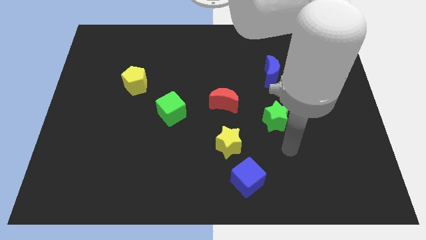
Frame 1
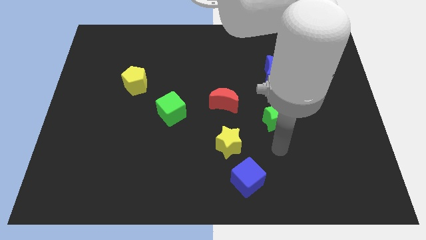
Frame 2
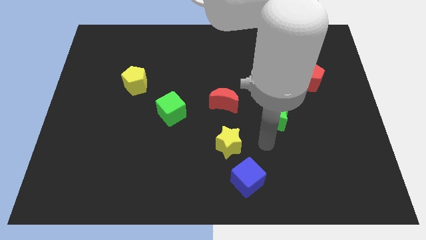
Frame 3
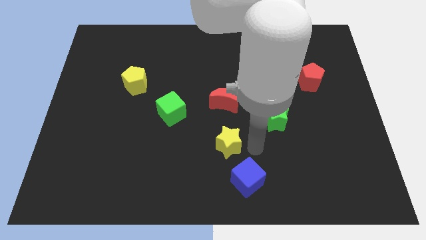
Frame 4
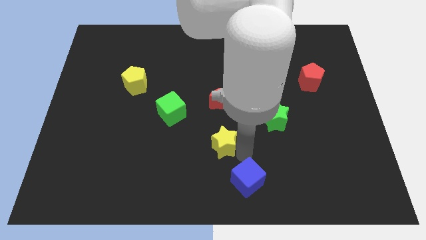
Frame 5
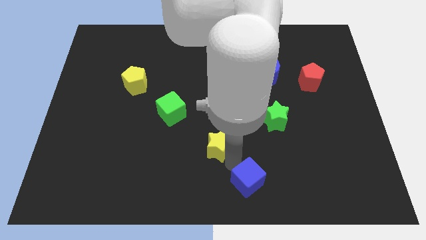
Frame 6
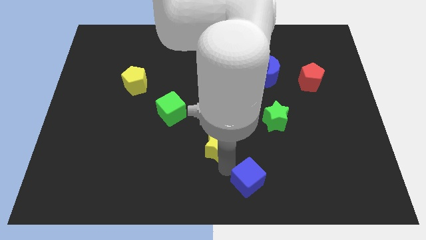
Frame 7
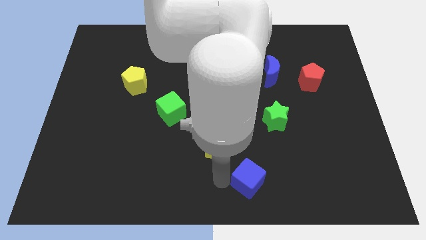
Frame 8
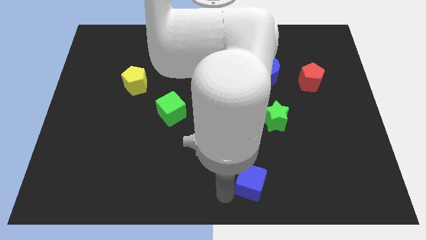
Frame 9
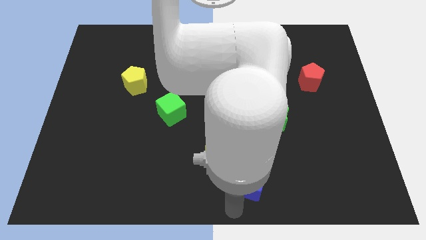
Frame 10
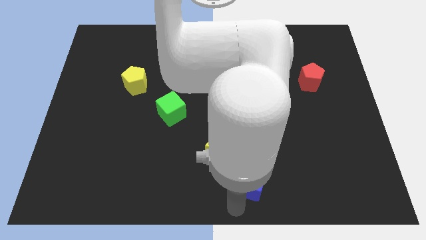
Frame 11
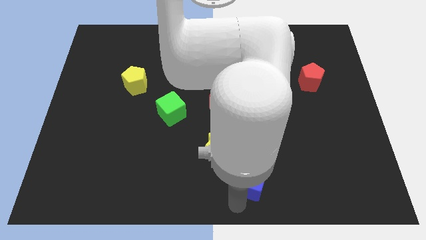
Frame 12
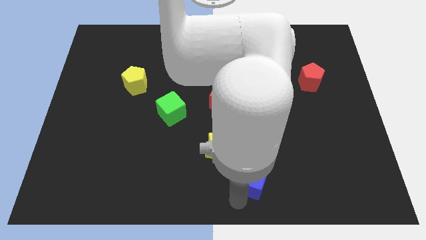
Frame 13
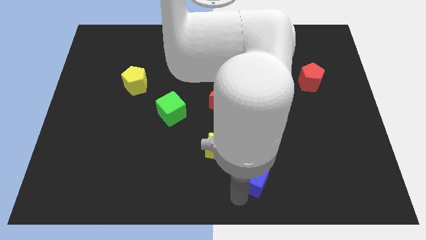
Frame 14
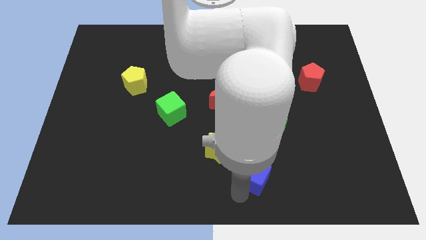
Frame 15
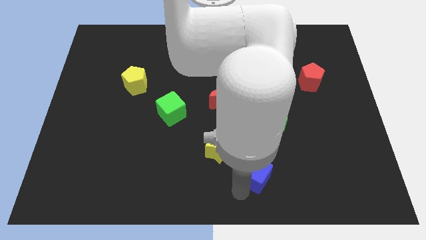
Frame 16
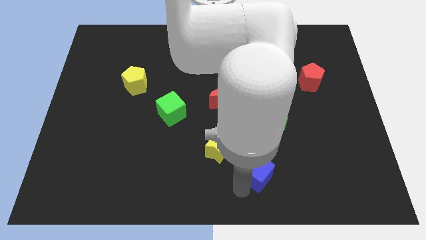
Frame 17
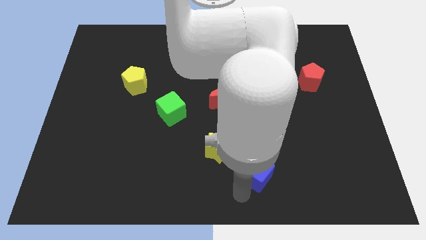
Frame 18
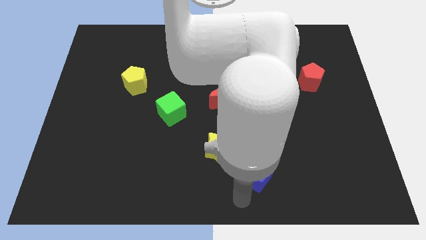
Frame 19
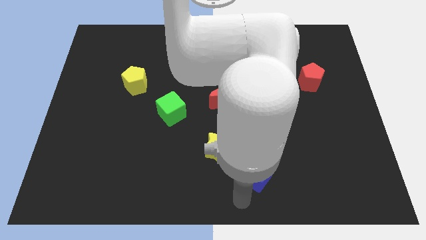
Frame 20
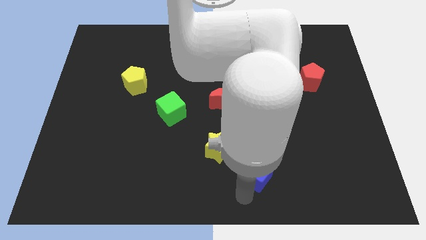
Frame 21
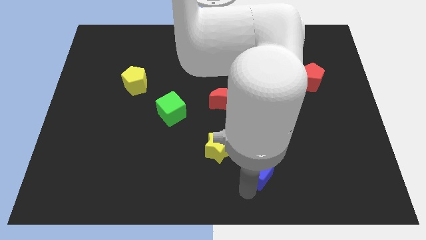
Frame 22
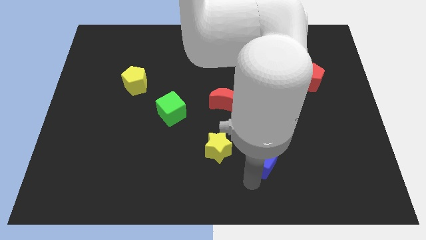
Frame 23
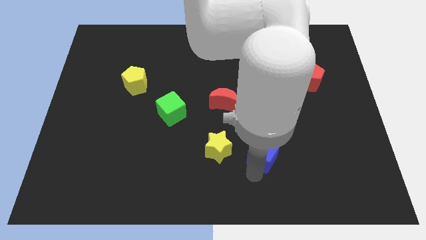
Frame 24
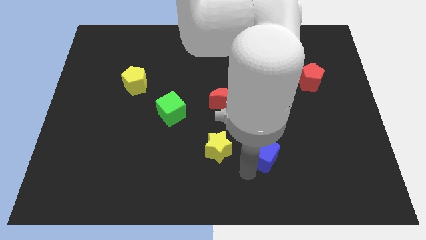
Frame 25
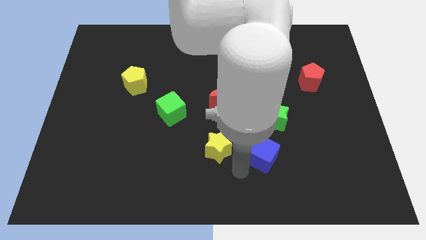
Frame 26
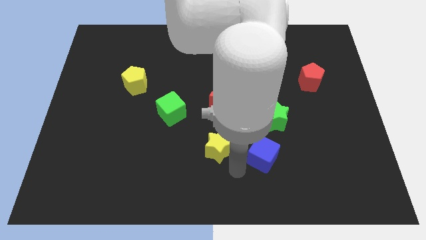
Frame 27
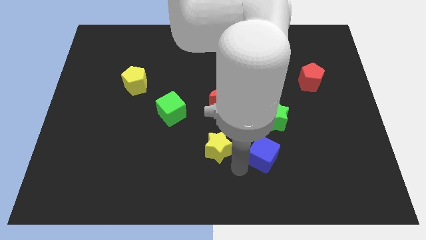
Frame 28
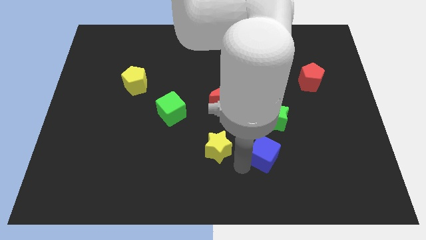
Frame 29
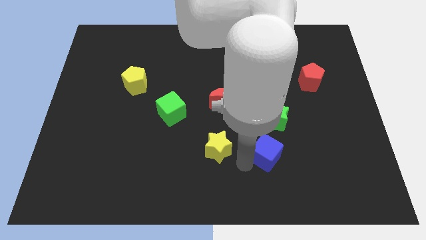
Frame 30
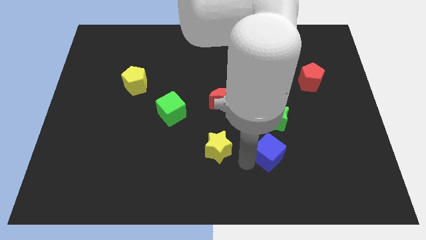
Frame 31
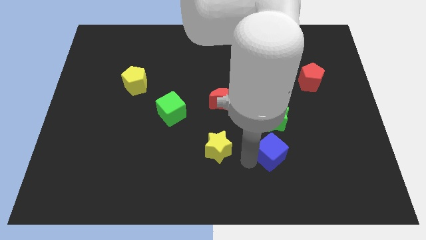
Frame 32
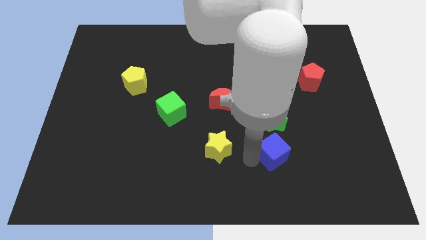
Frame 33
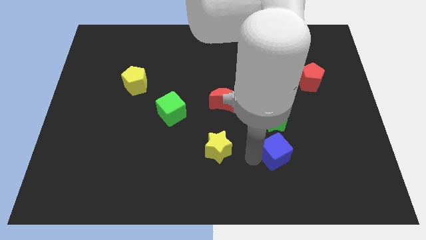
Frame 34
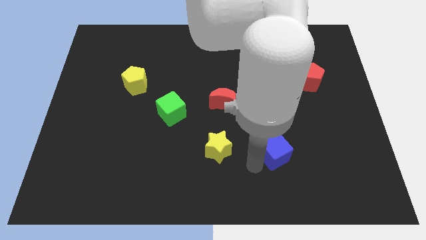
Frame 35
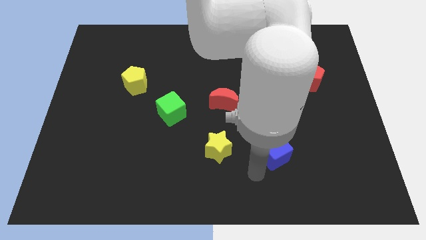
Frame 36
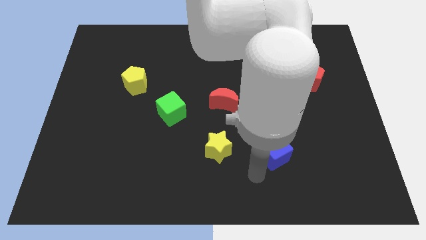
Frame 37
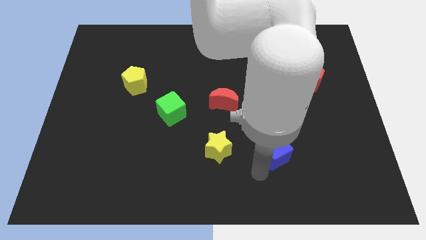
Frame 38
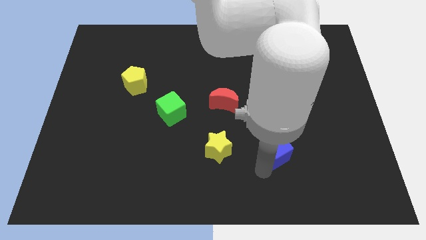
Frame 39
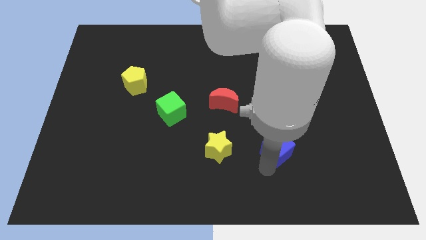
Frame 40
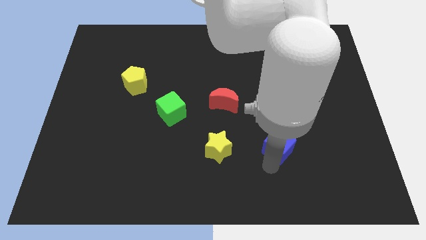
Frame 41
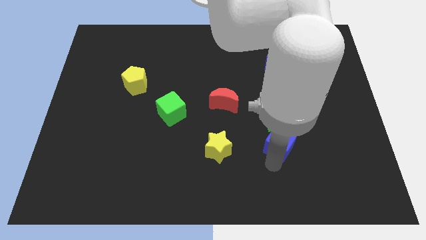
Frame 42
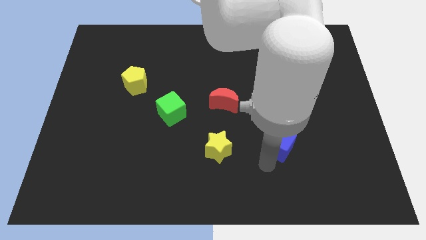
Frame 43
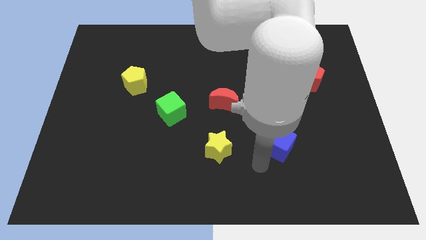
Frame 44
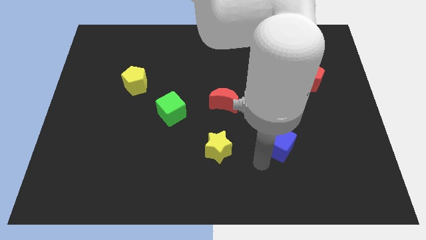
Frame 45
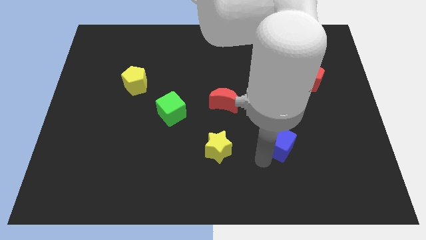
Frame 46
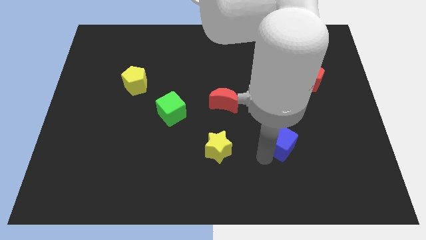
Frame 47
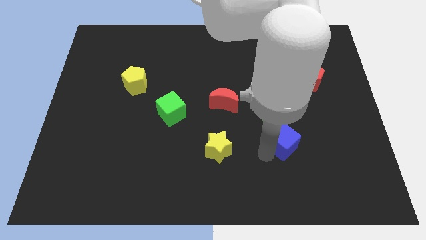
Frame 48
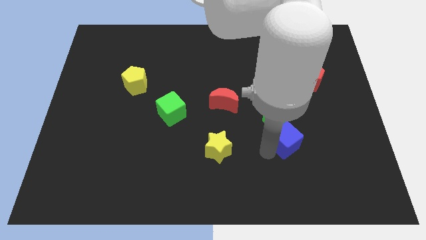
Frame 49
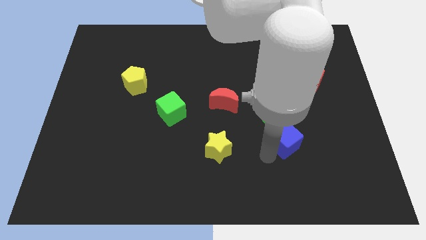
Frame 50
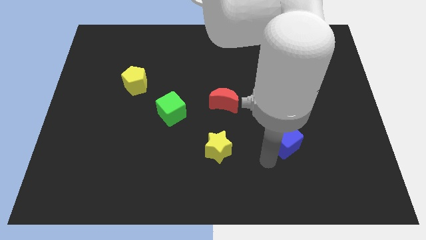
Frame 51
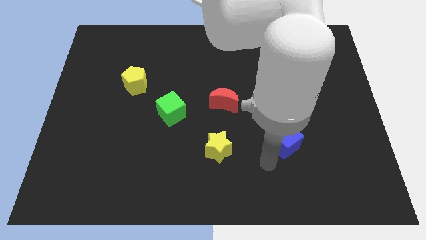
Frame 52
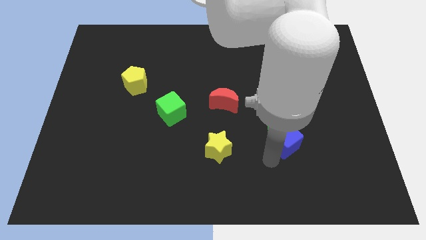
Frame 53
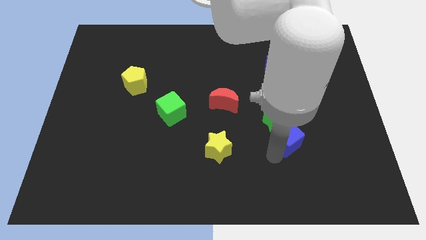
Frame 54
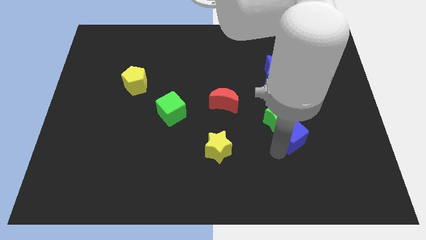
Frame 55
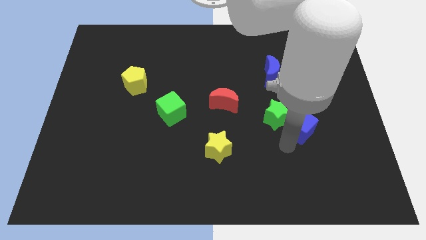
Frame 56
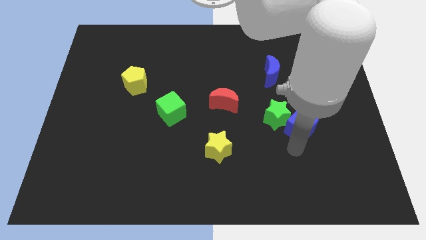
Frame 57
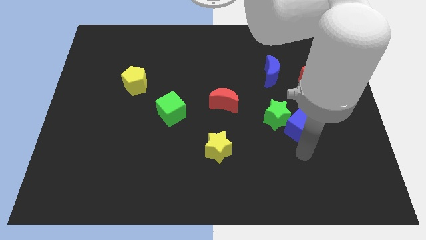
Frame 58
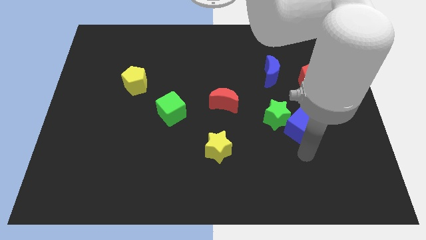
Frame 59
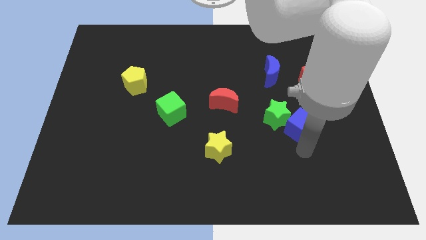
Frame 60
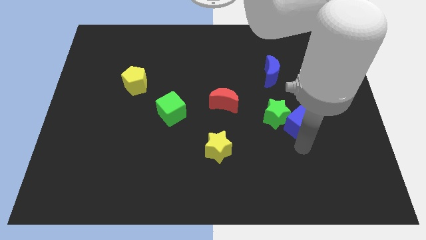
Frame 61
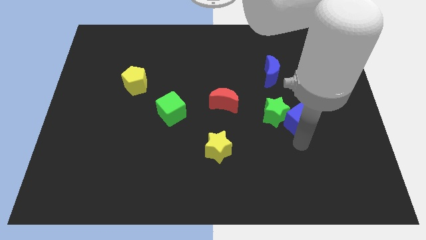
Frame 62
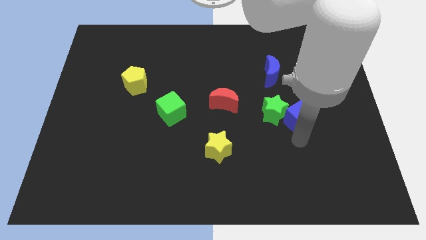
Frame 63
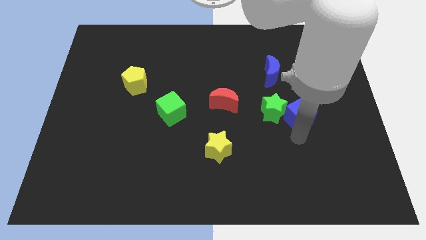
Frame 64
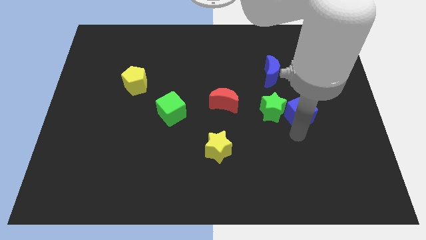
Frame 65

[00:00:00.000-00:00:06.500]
move the blue cube diagonally down and to the left of the red pentagon

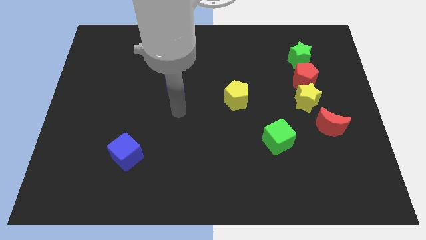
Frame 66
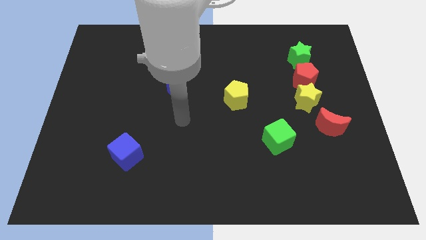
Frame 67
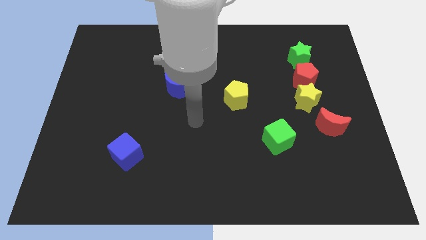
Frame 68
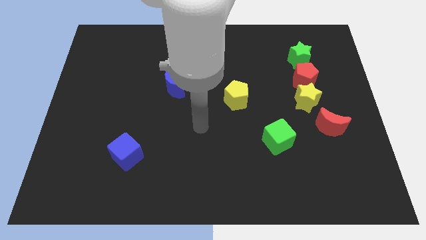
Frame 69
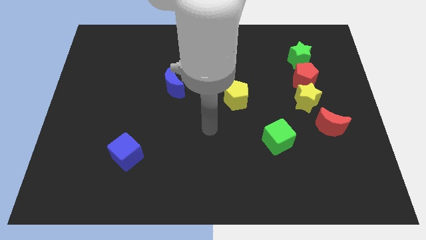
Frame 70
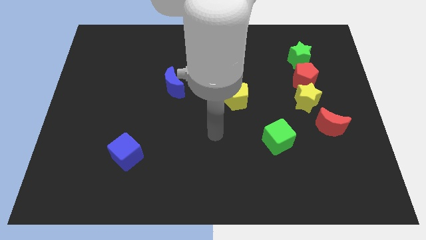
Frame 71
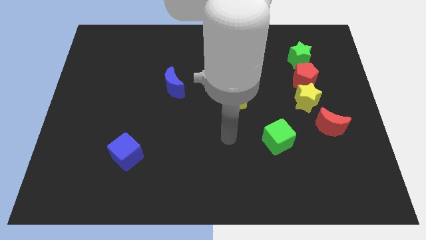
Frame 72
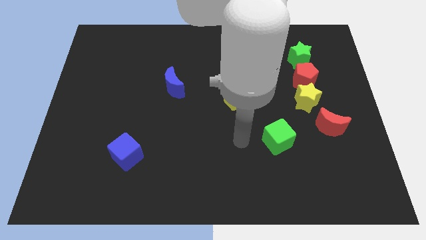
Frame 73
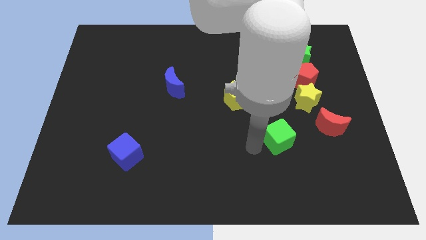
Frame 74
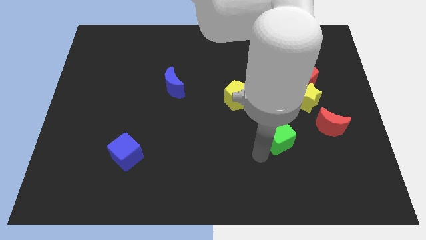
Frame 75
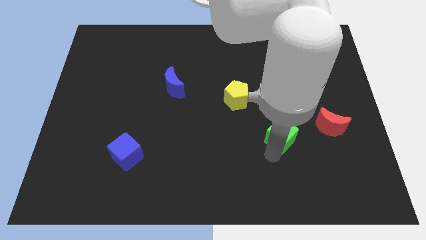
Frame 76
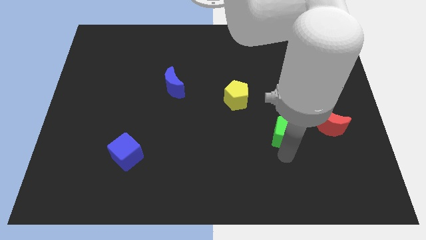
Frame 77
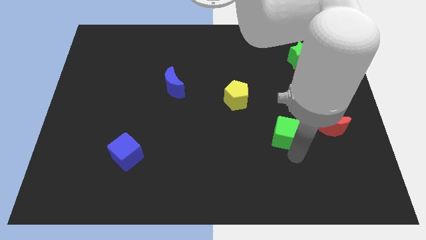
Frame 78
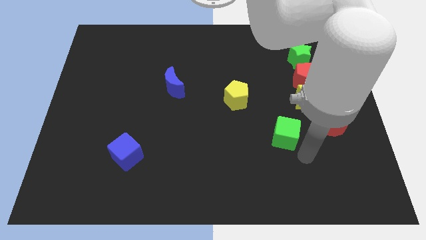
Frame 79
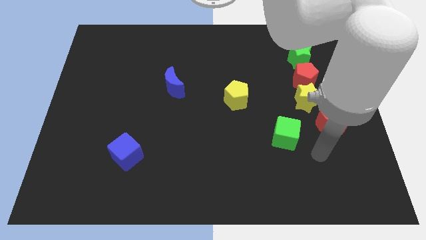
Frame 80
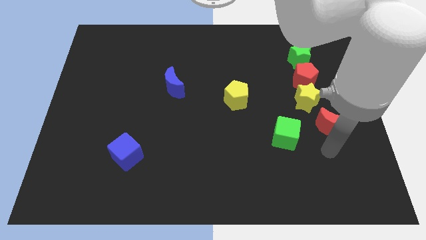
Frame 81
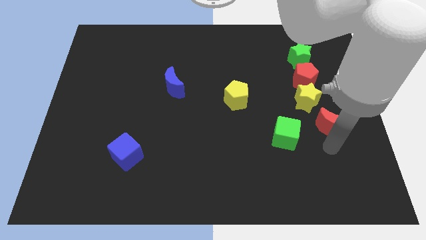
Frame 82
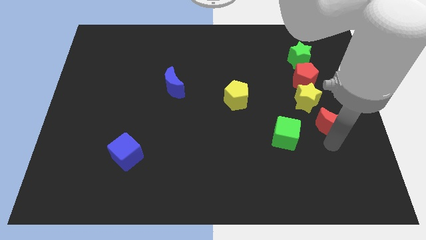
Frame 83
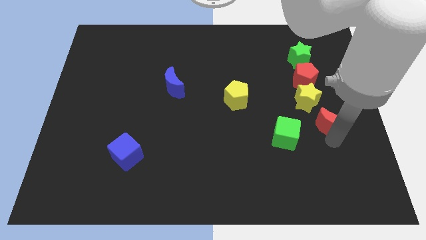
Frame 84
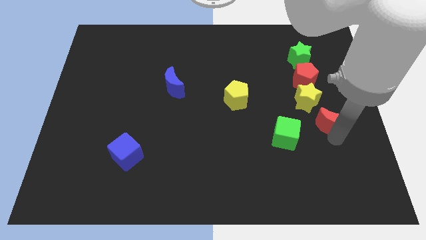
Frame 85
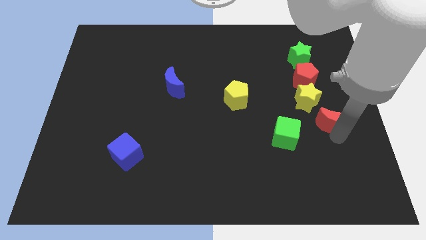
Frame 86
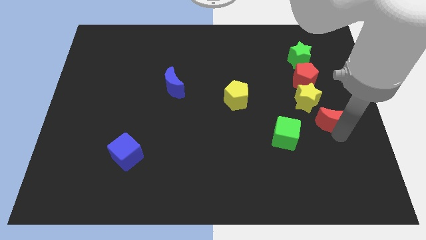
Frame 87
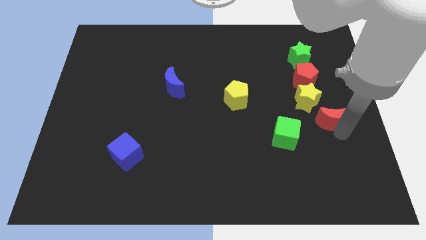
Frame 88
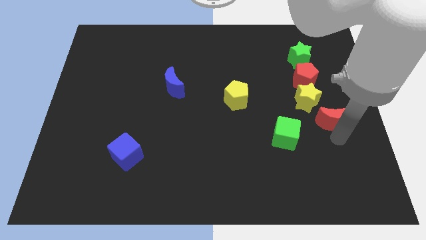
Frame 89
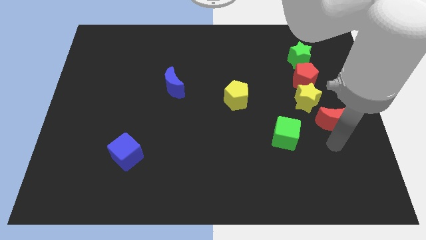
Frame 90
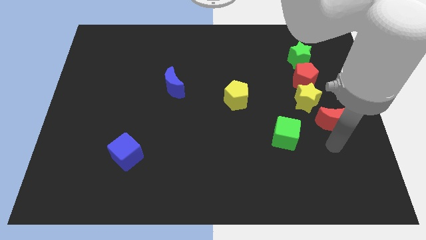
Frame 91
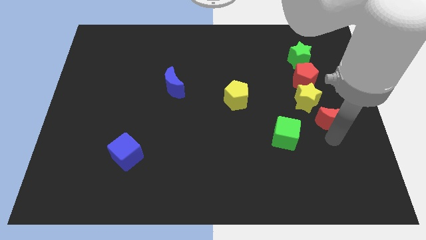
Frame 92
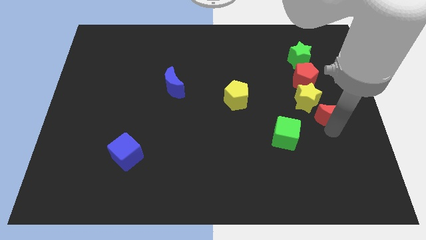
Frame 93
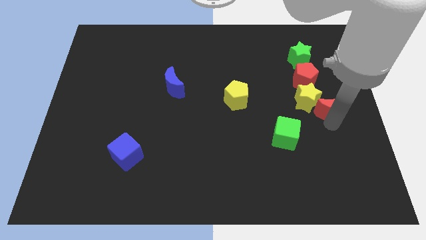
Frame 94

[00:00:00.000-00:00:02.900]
push the red moon to the bottom right of the red pentagon
